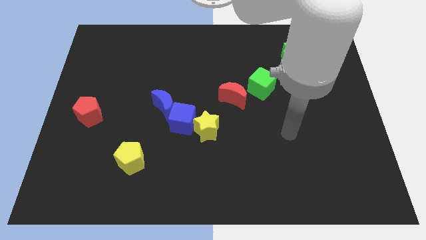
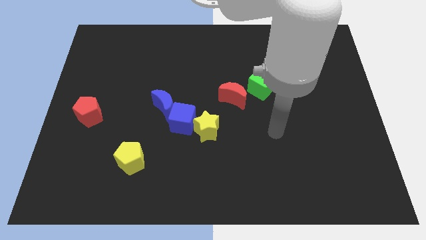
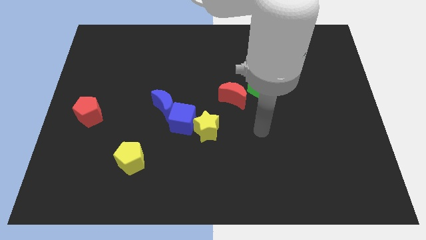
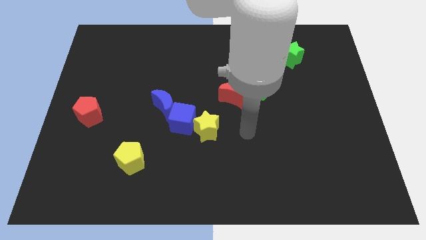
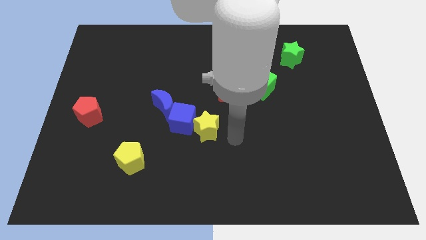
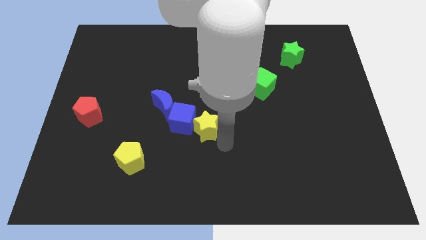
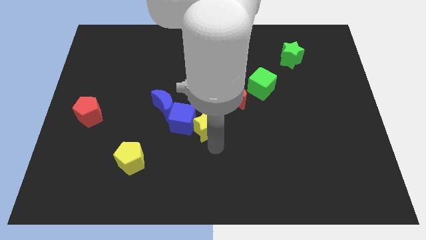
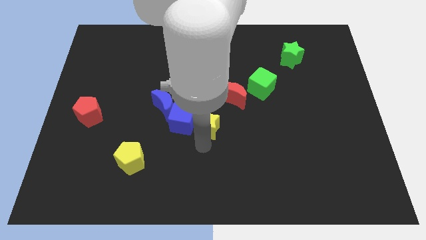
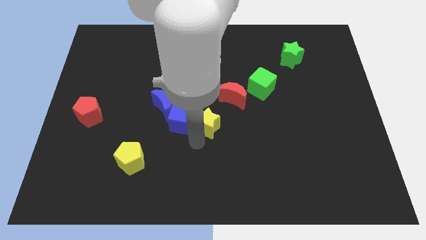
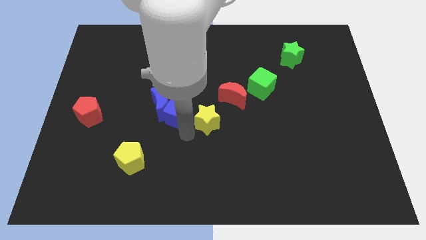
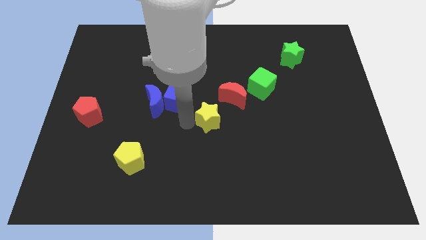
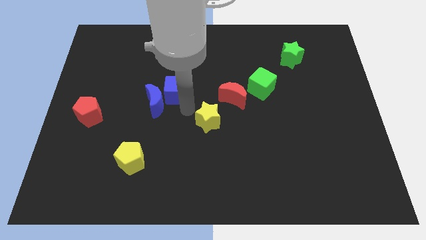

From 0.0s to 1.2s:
separate the yellow star from the blue cube

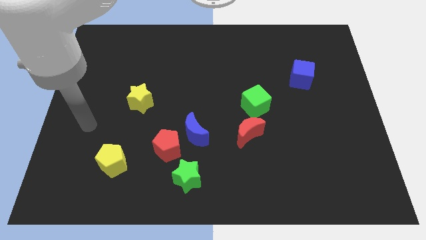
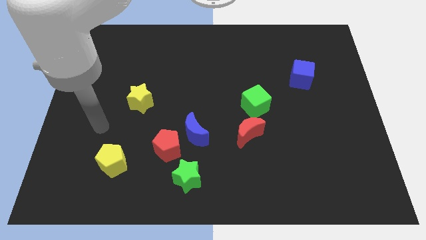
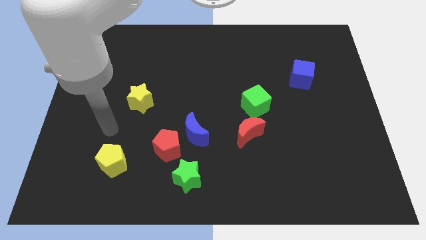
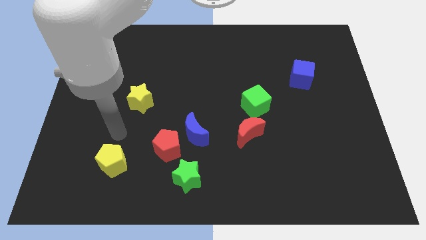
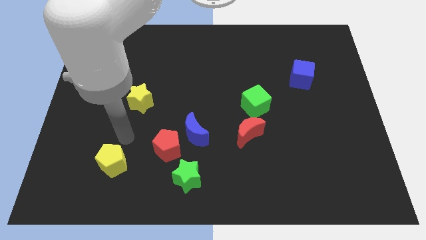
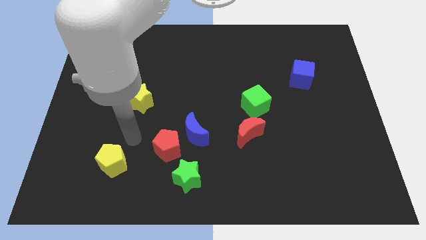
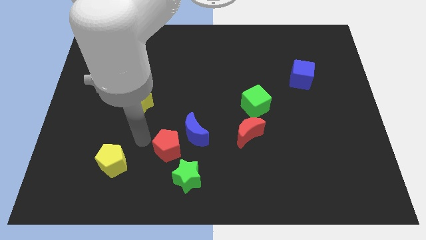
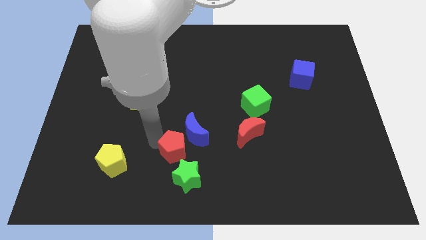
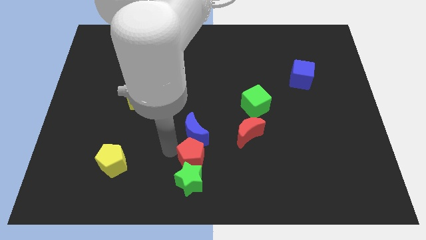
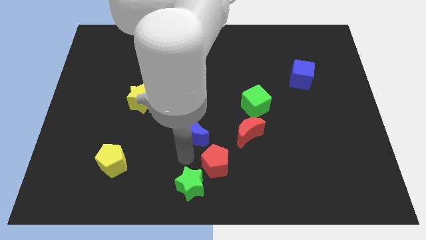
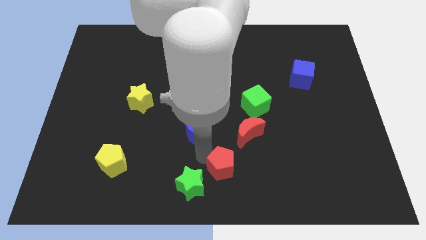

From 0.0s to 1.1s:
separate the blue moon from the red pentagon

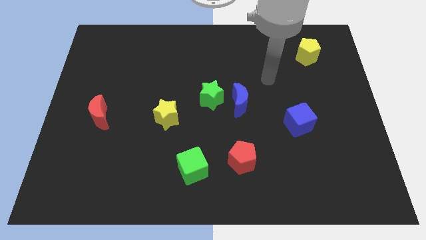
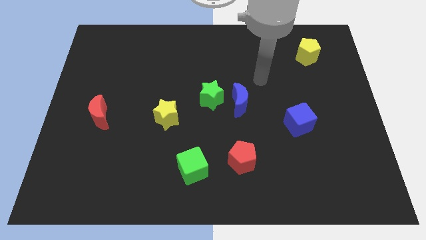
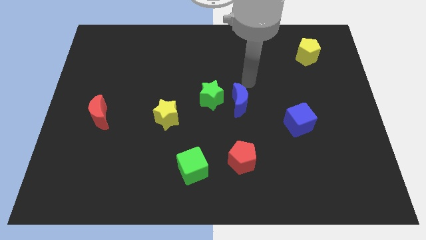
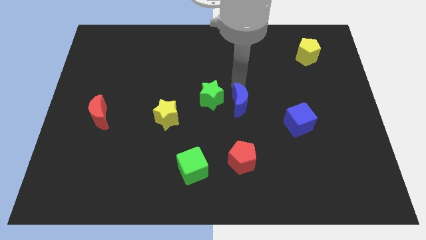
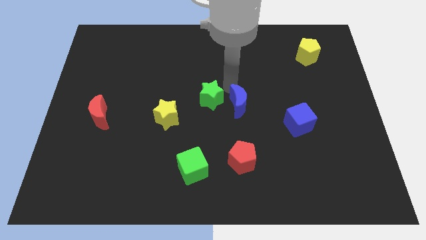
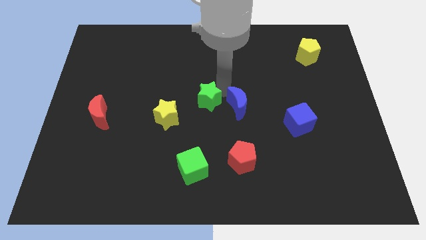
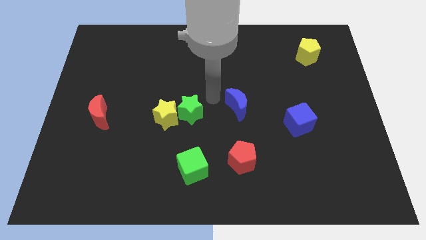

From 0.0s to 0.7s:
pull the blue moon apart from the green star

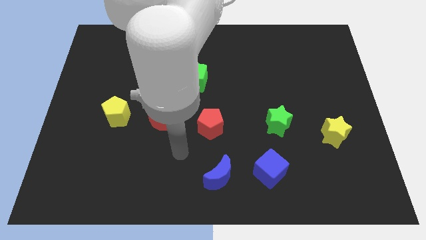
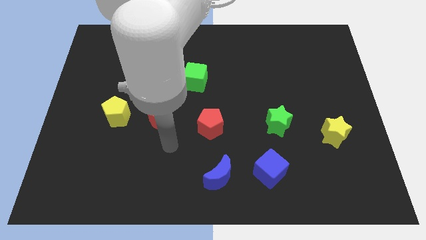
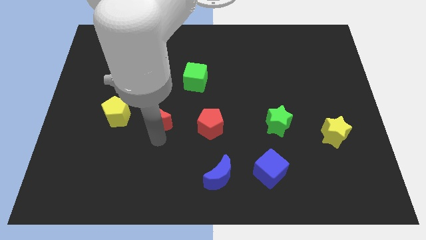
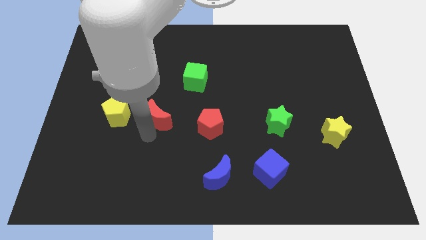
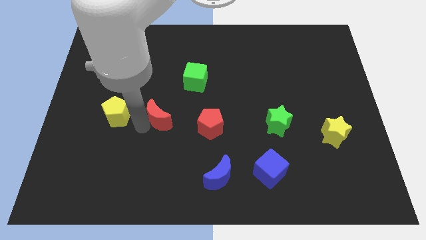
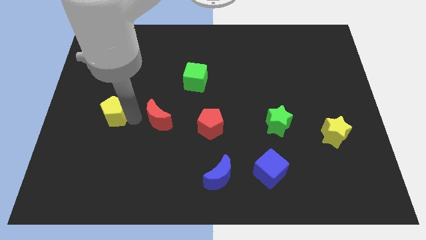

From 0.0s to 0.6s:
move the red moon away from the yellow pentagon

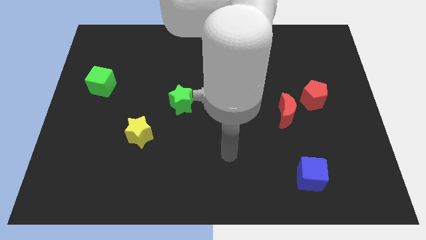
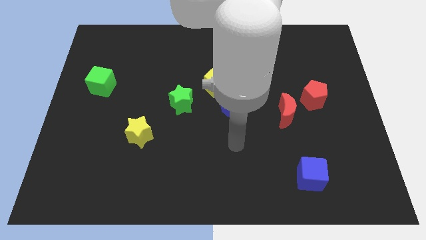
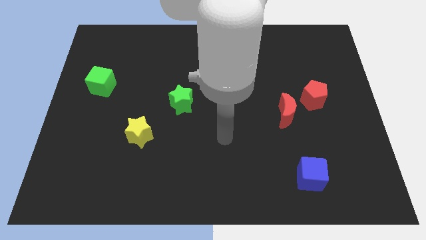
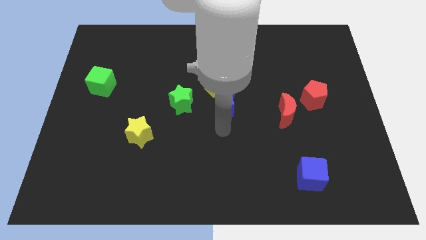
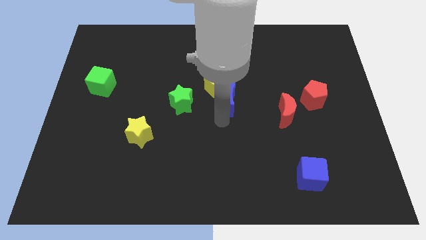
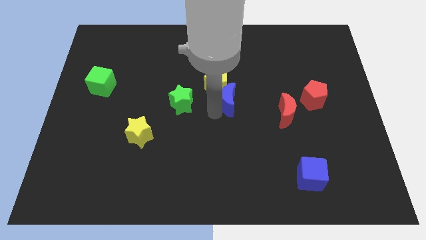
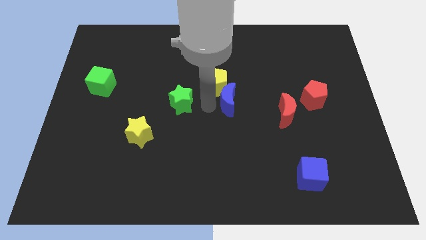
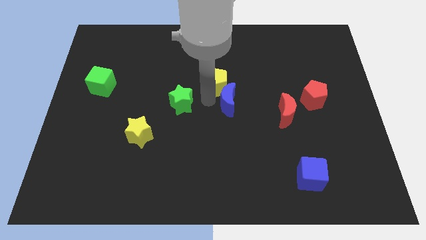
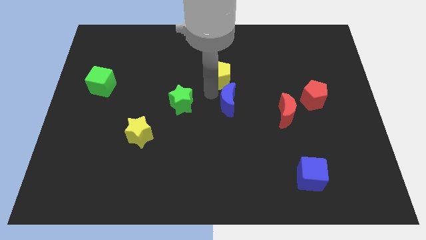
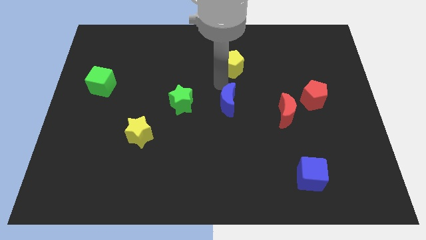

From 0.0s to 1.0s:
move the blue moon away from the yellow pentagon

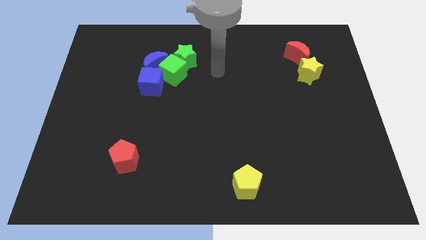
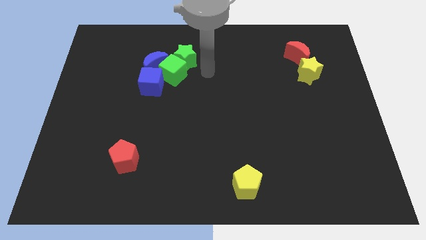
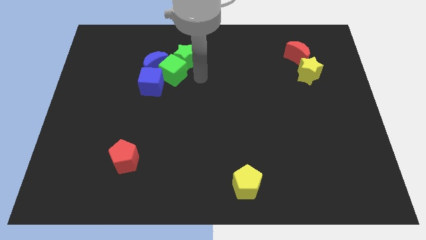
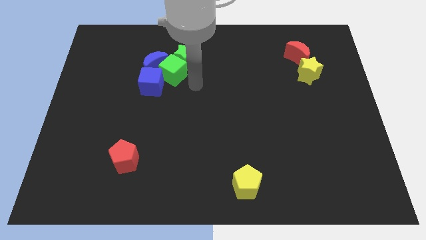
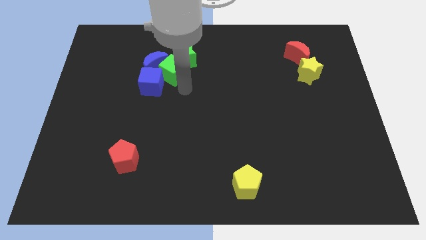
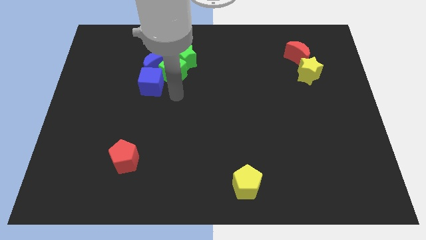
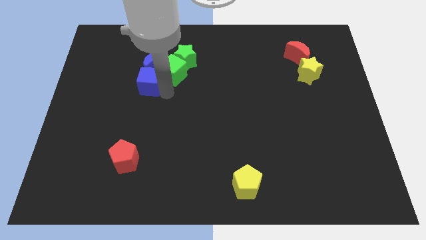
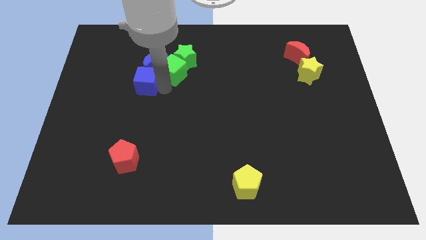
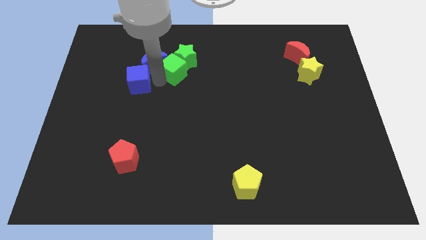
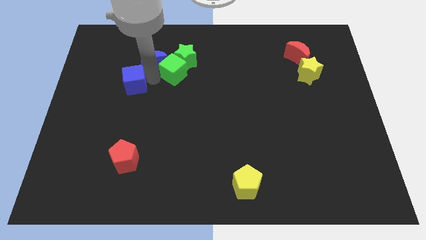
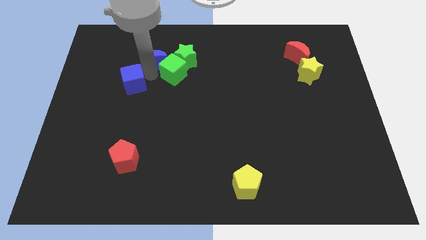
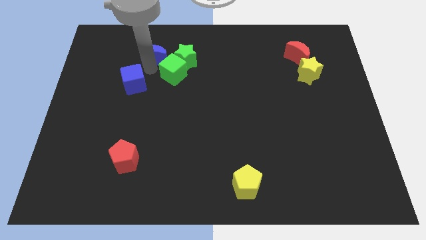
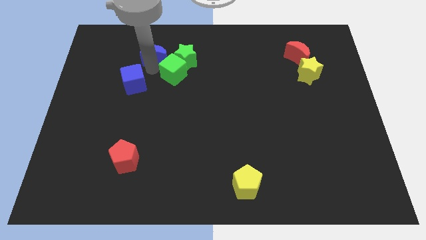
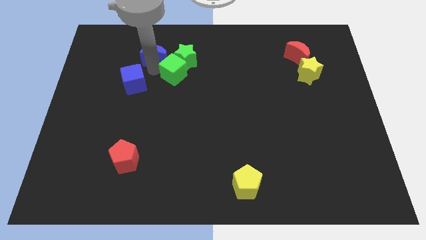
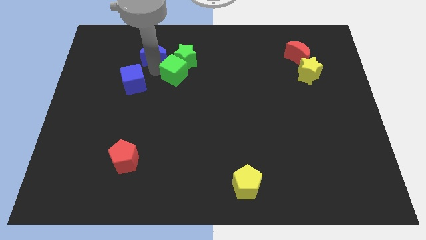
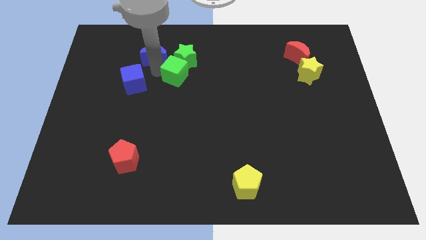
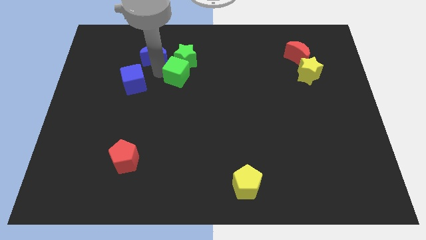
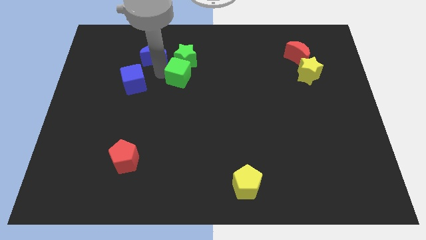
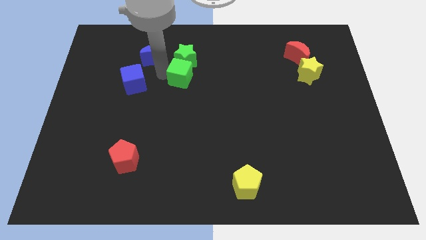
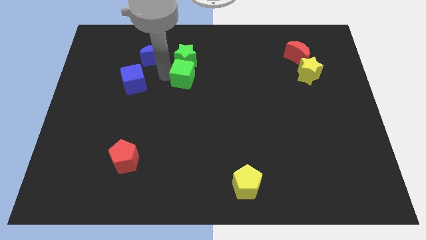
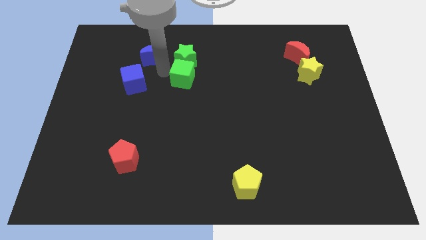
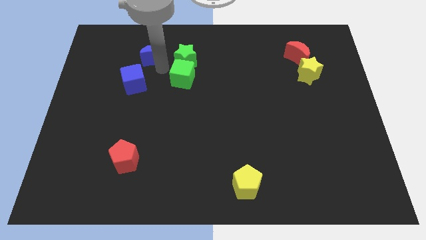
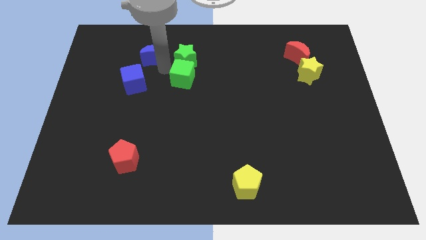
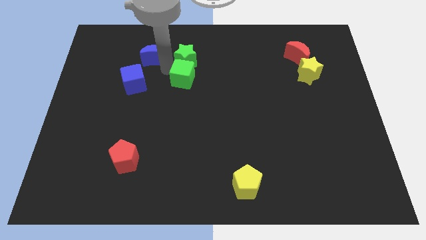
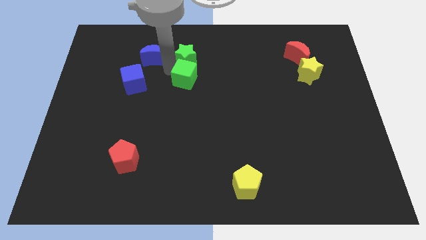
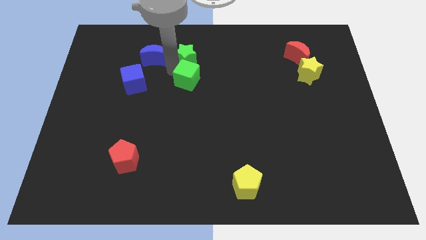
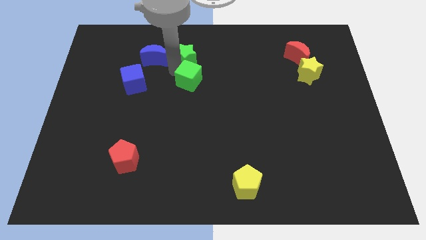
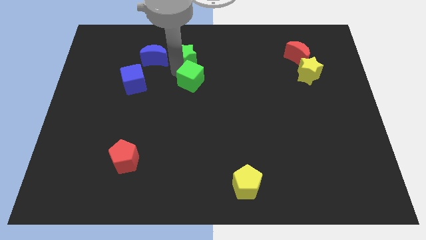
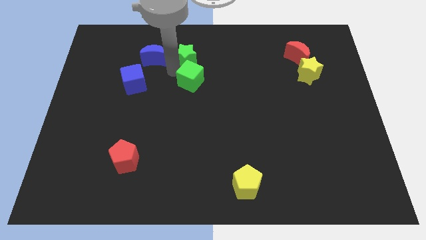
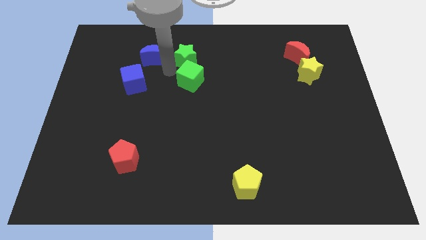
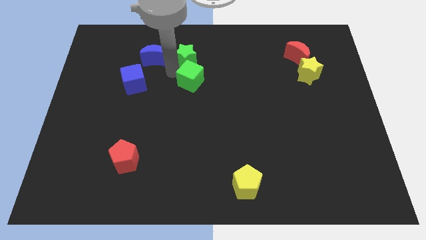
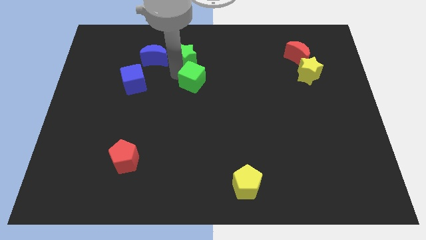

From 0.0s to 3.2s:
separate the green cube from the group

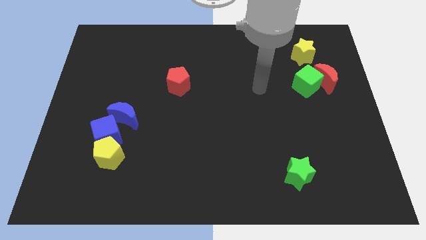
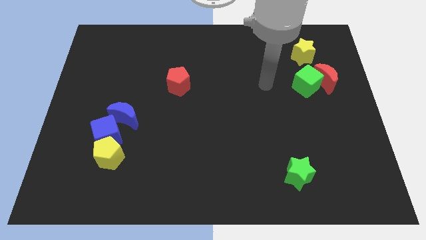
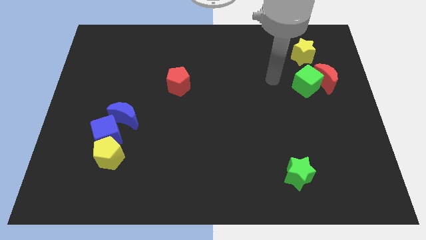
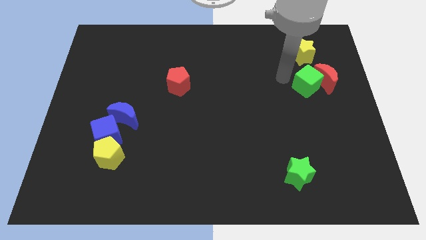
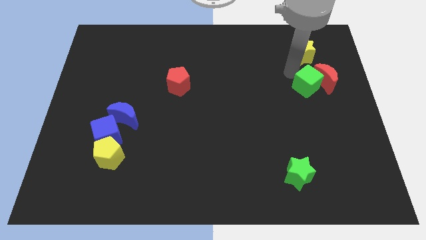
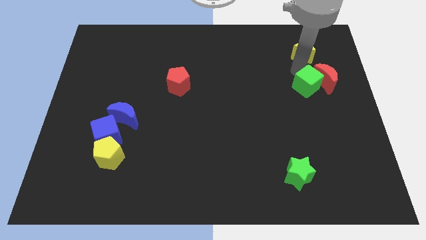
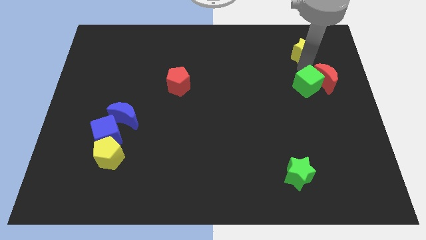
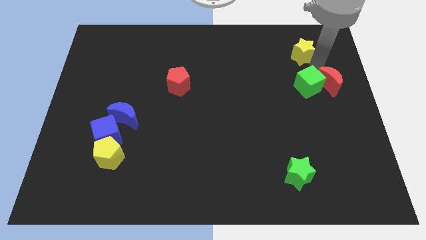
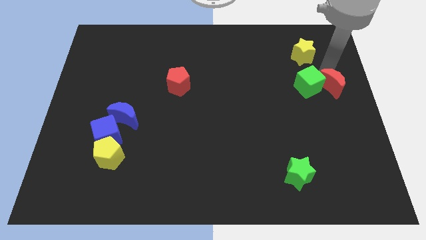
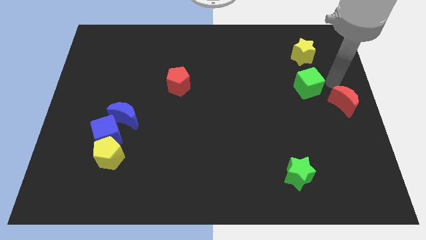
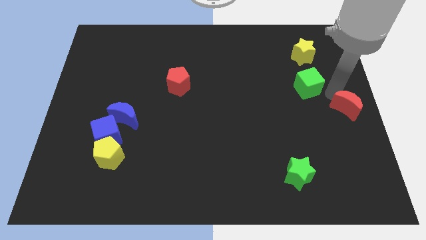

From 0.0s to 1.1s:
separate the green cube from the red moon

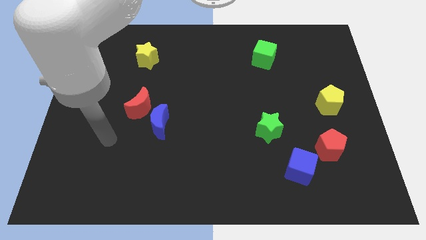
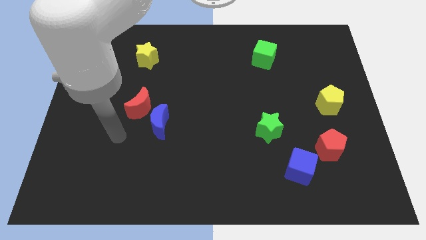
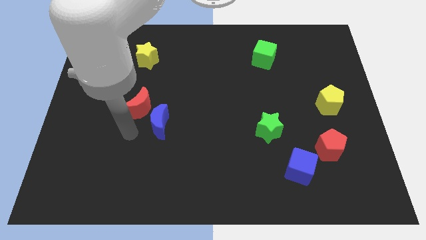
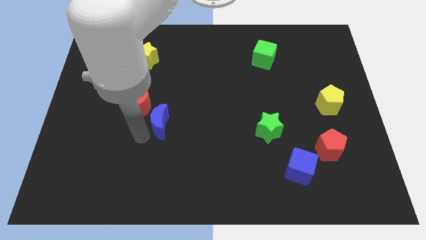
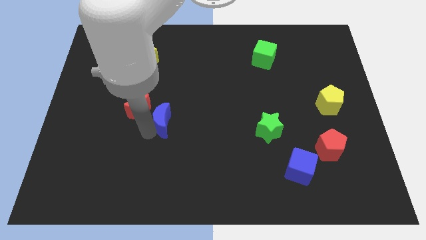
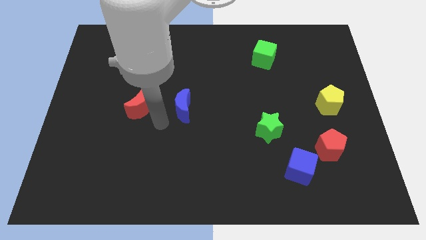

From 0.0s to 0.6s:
move the red moon away from the blue moon
